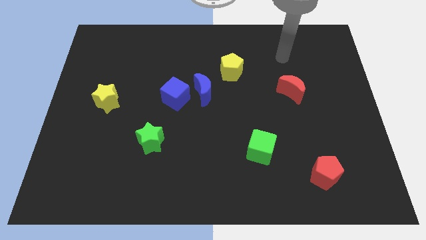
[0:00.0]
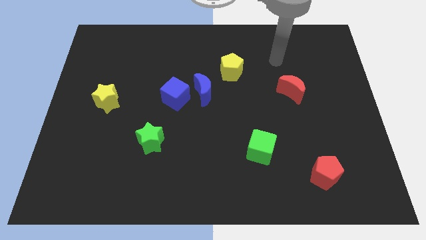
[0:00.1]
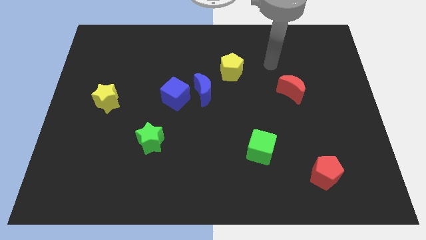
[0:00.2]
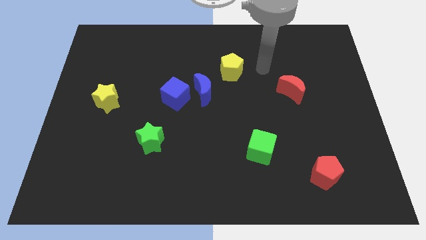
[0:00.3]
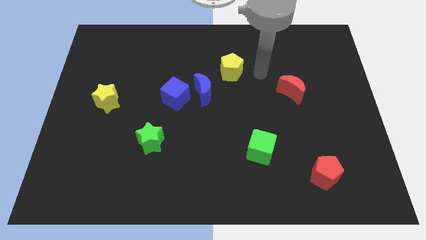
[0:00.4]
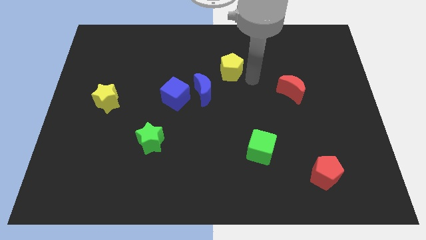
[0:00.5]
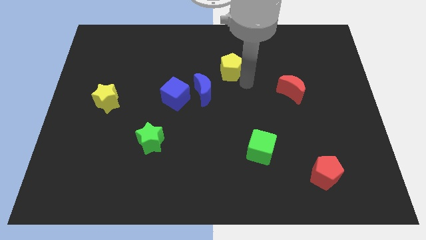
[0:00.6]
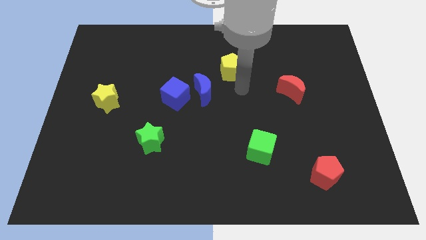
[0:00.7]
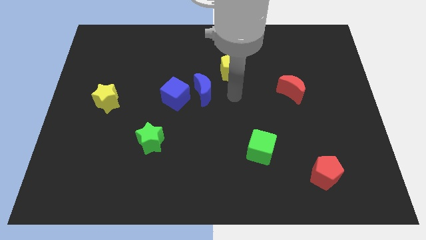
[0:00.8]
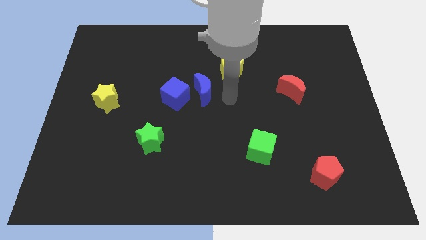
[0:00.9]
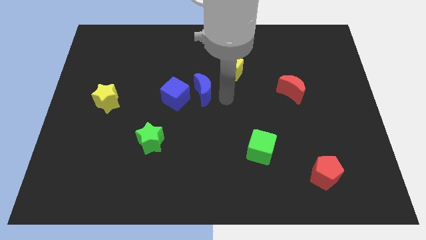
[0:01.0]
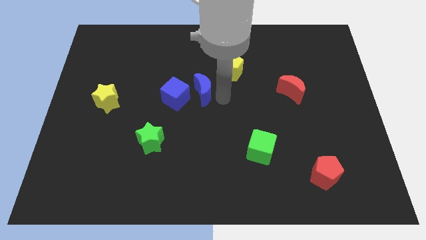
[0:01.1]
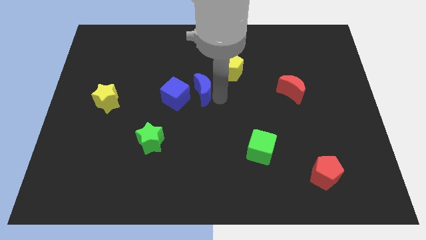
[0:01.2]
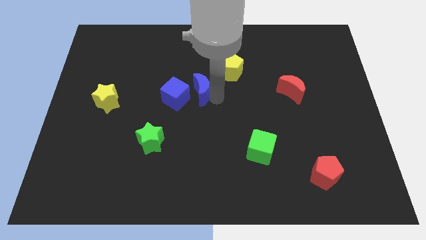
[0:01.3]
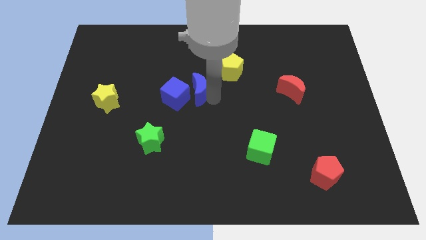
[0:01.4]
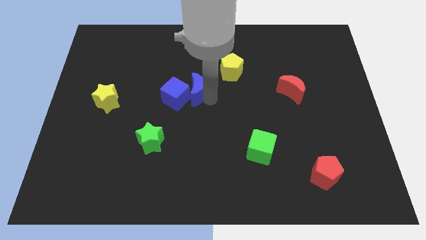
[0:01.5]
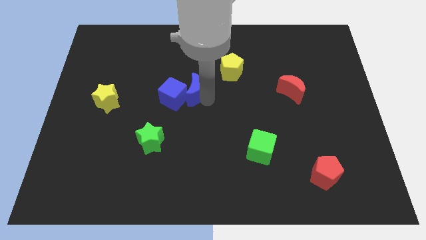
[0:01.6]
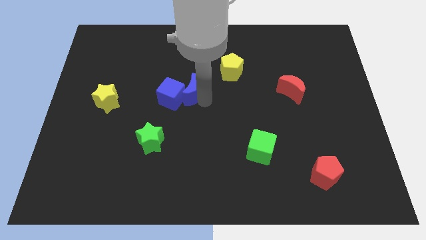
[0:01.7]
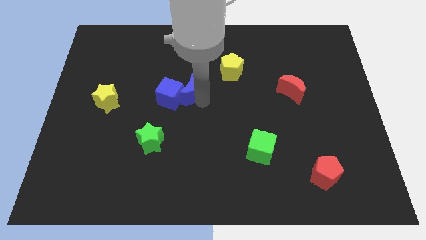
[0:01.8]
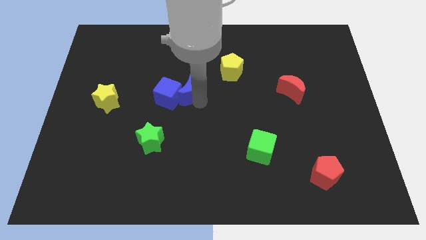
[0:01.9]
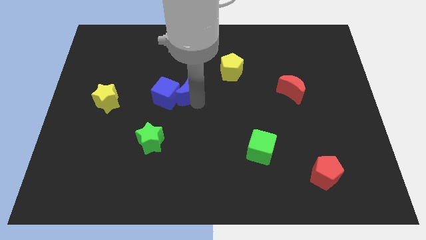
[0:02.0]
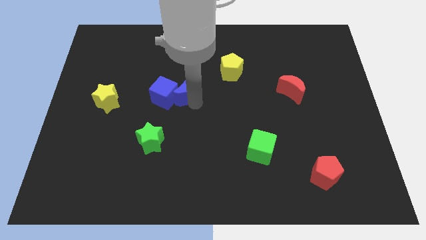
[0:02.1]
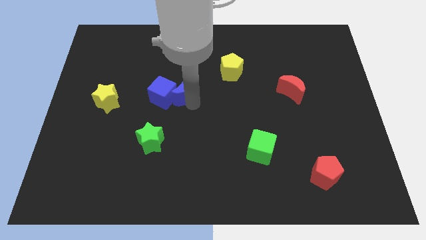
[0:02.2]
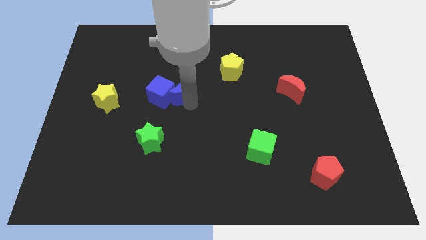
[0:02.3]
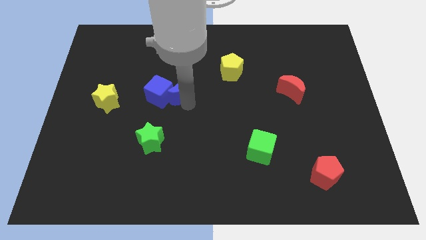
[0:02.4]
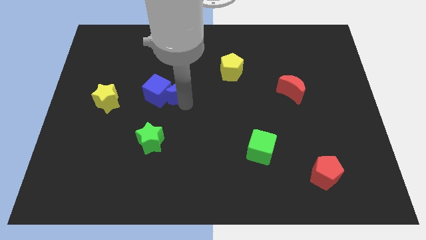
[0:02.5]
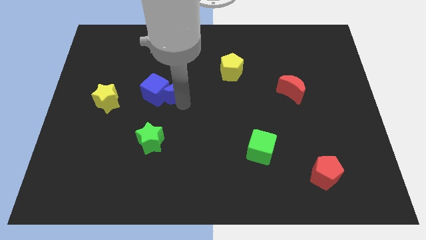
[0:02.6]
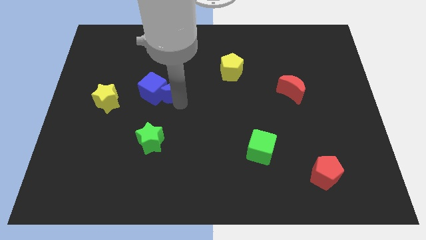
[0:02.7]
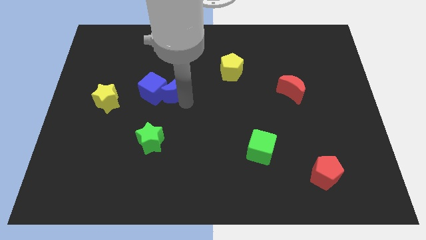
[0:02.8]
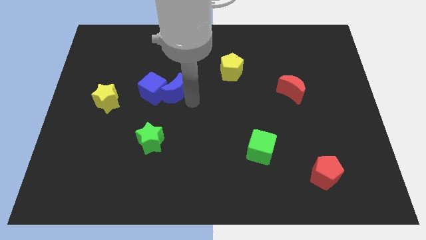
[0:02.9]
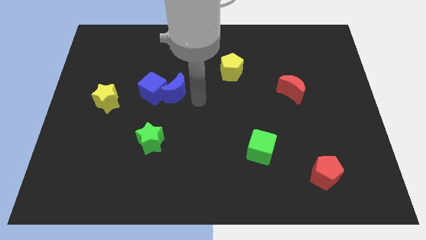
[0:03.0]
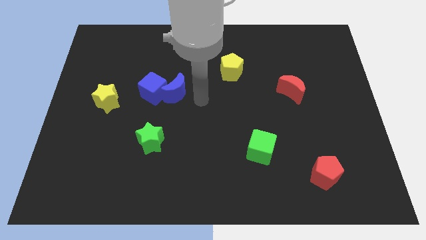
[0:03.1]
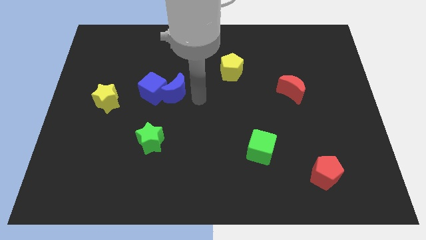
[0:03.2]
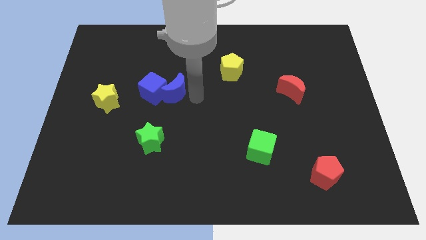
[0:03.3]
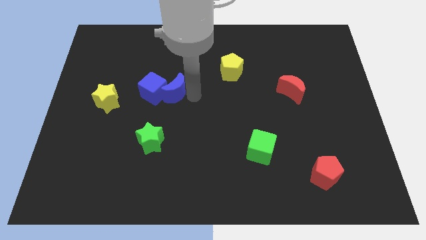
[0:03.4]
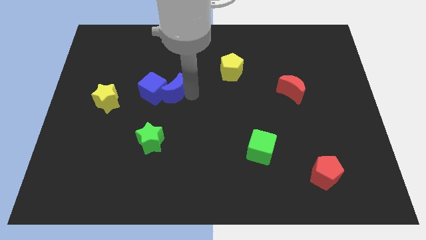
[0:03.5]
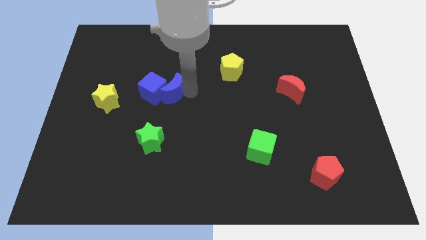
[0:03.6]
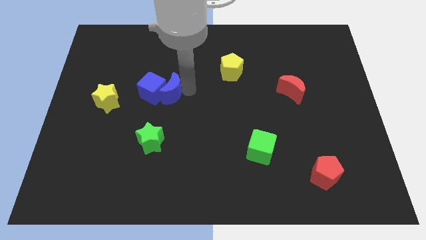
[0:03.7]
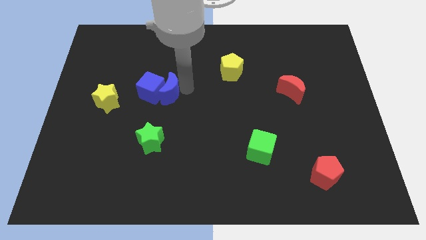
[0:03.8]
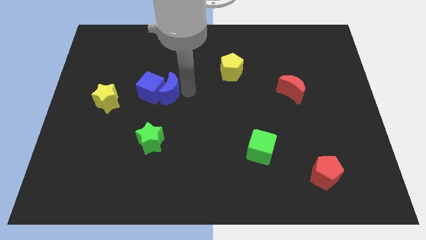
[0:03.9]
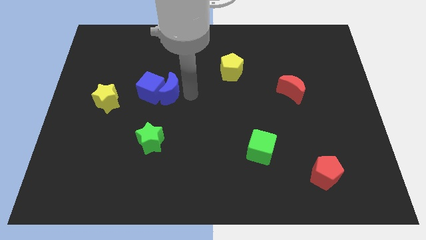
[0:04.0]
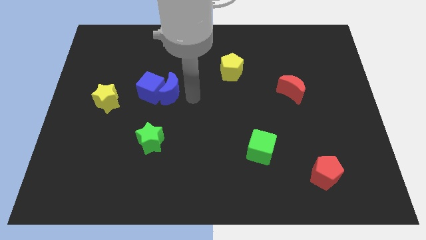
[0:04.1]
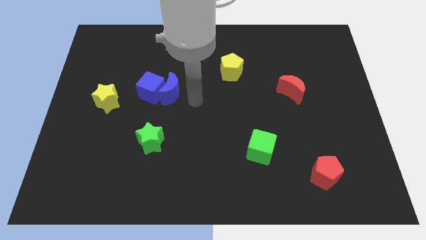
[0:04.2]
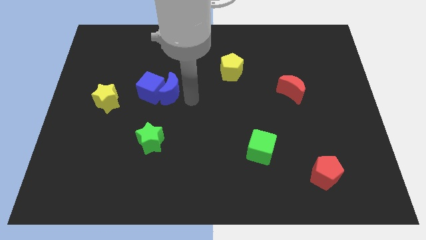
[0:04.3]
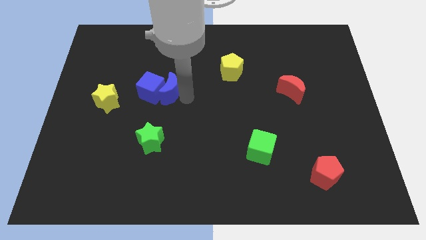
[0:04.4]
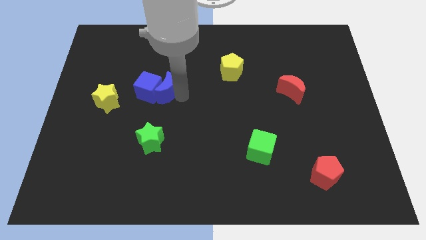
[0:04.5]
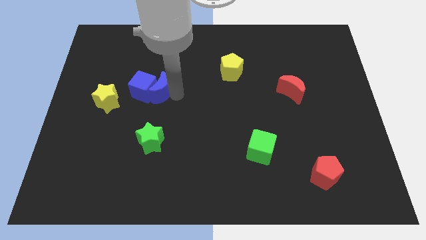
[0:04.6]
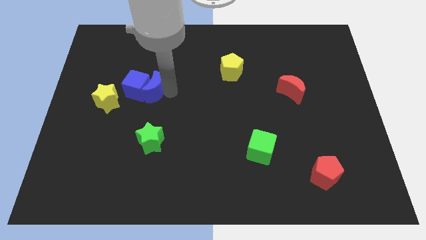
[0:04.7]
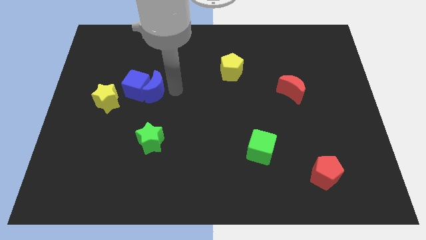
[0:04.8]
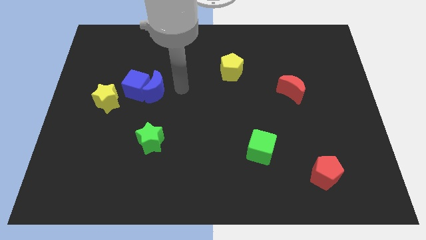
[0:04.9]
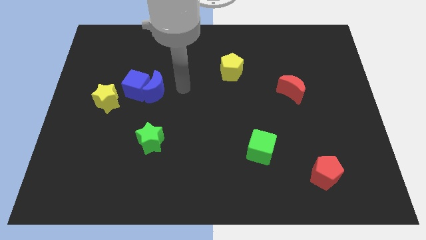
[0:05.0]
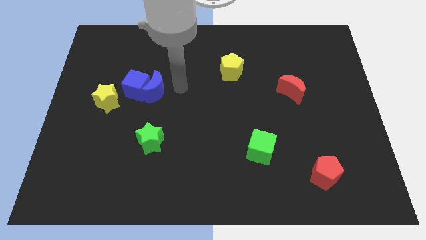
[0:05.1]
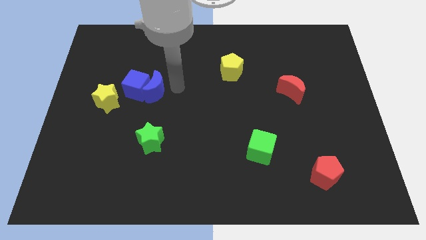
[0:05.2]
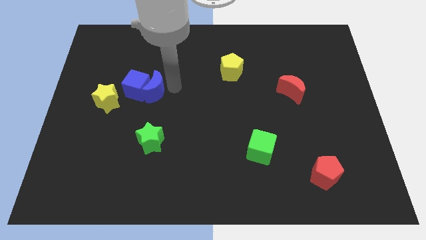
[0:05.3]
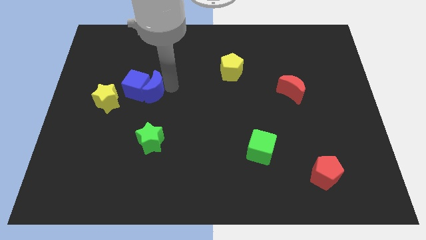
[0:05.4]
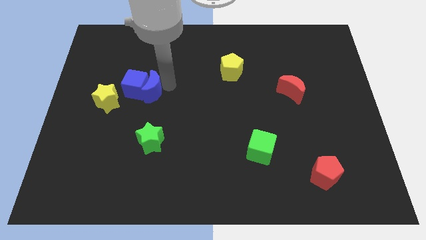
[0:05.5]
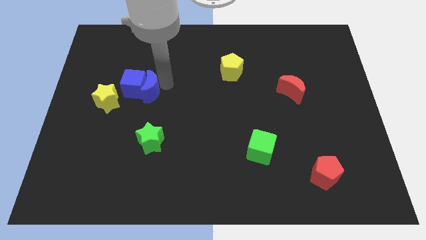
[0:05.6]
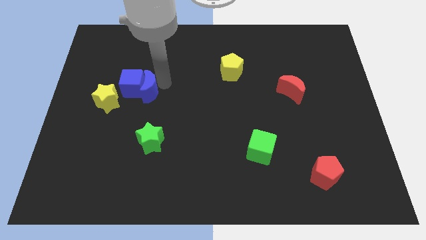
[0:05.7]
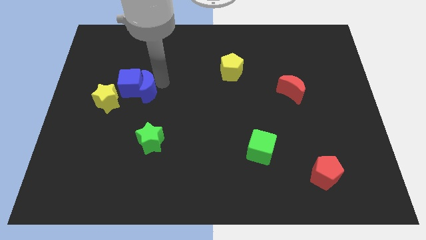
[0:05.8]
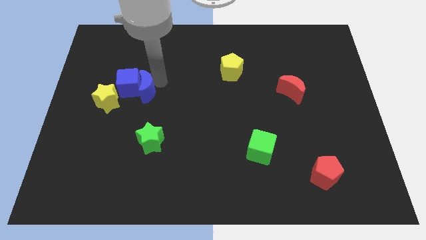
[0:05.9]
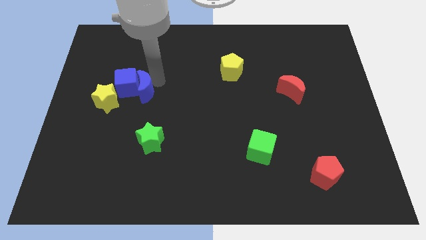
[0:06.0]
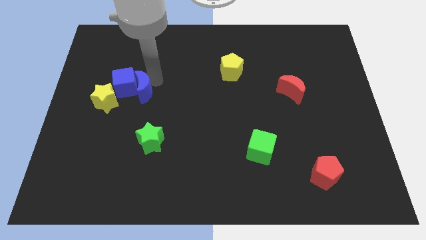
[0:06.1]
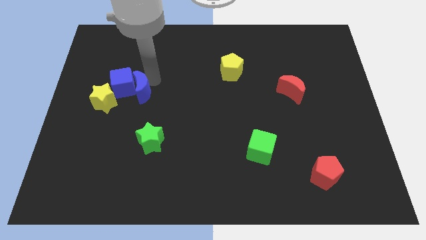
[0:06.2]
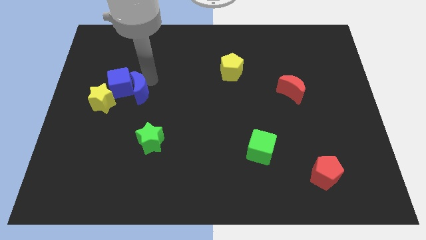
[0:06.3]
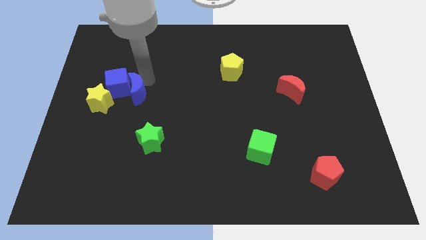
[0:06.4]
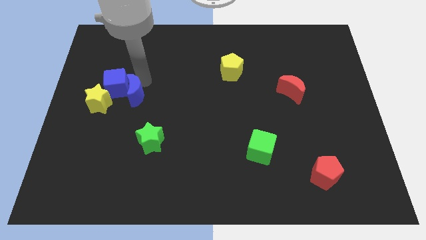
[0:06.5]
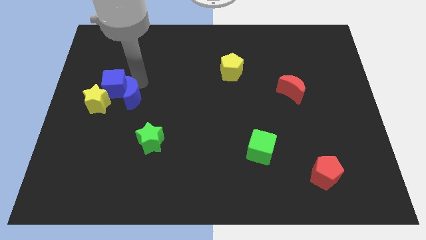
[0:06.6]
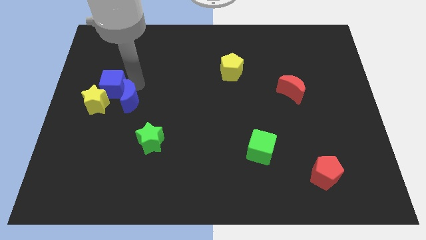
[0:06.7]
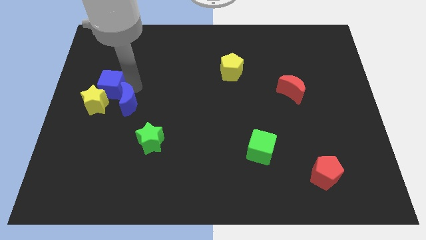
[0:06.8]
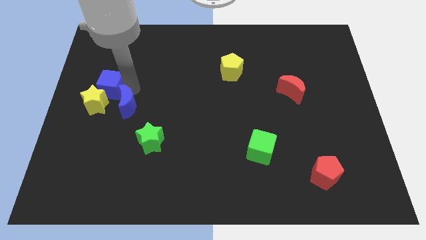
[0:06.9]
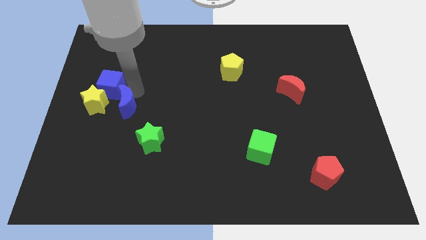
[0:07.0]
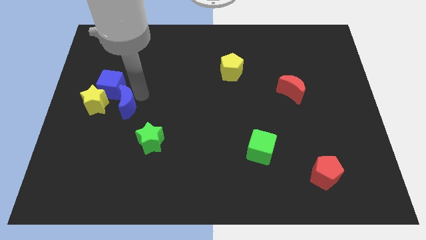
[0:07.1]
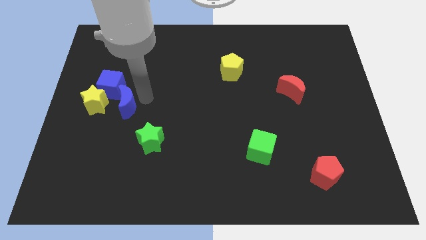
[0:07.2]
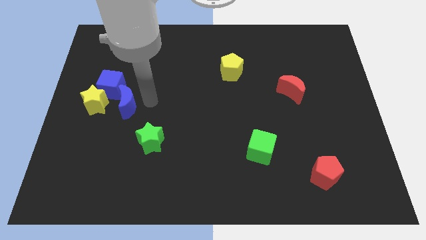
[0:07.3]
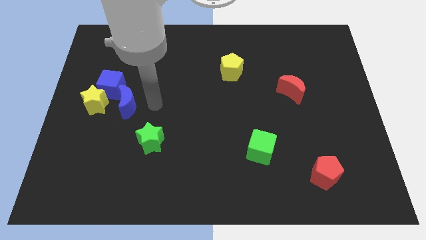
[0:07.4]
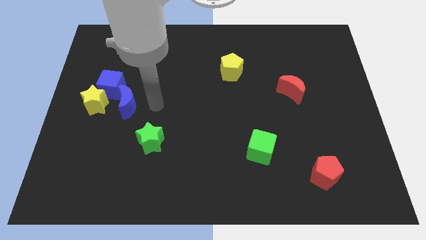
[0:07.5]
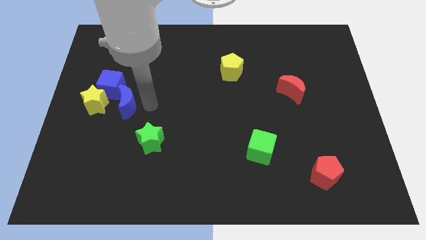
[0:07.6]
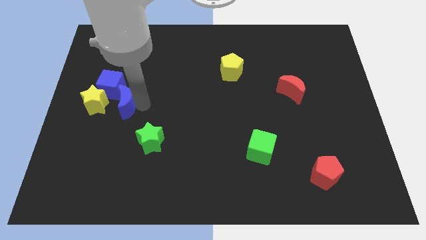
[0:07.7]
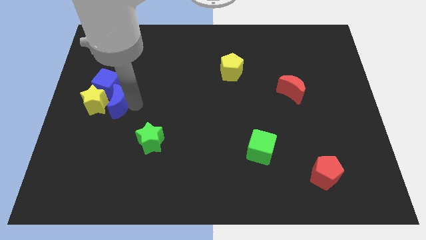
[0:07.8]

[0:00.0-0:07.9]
slide the blue moon close to the yellow star
